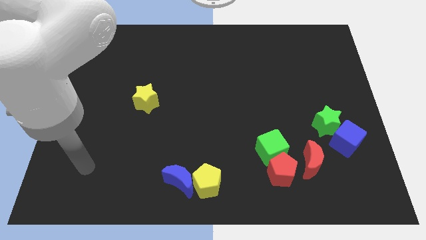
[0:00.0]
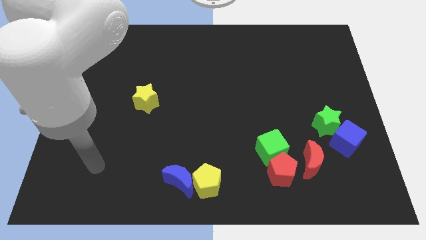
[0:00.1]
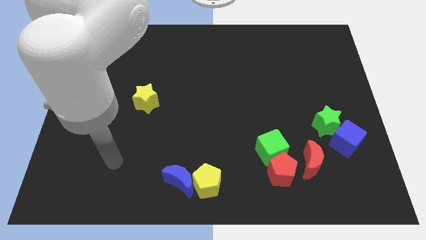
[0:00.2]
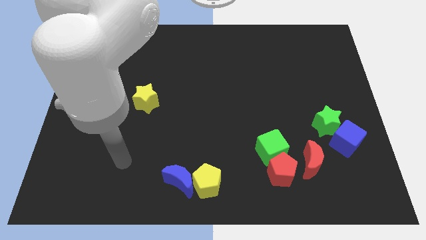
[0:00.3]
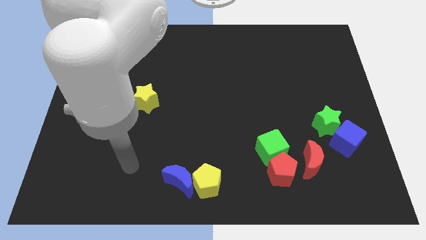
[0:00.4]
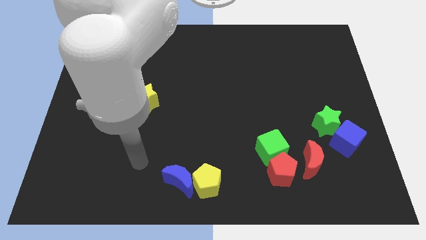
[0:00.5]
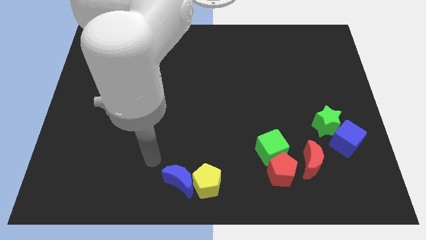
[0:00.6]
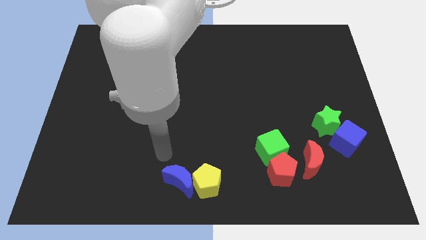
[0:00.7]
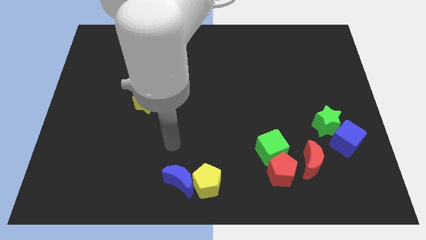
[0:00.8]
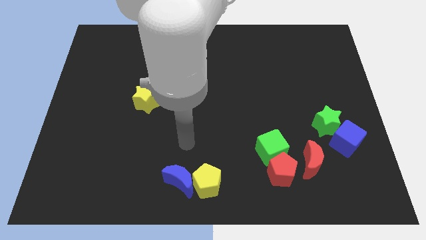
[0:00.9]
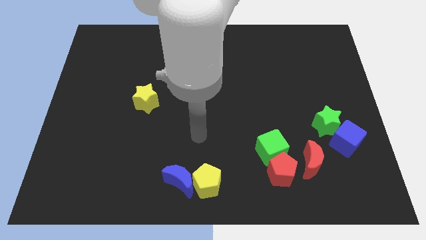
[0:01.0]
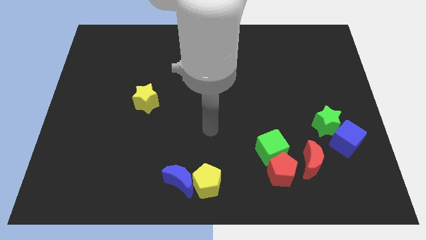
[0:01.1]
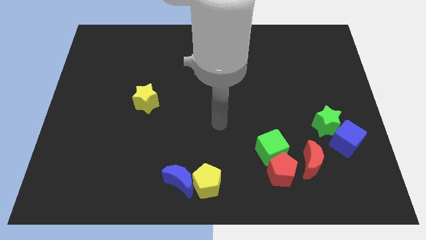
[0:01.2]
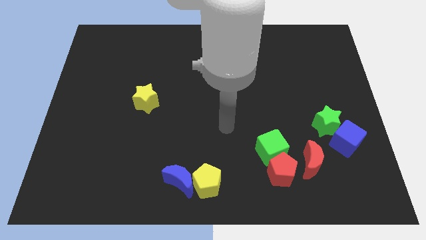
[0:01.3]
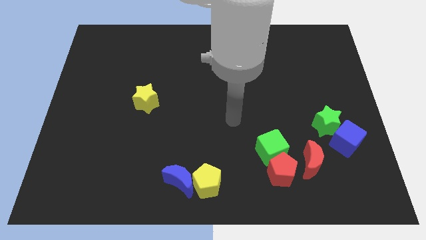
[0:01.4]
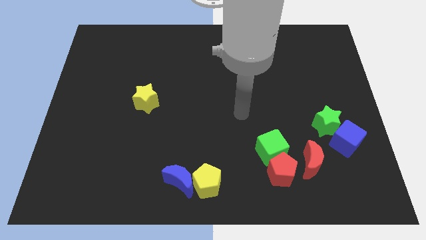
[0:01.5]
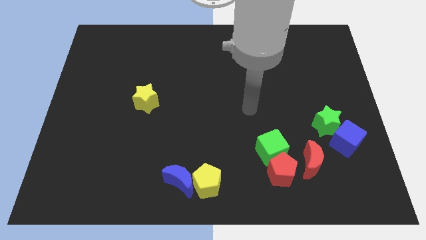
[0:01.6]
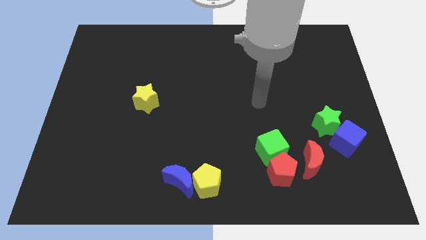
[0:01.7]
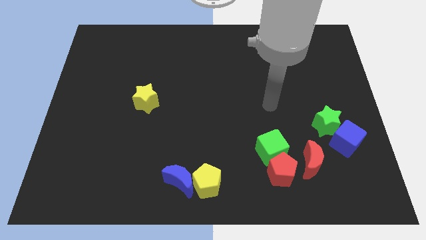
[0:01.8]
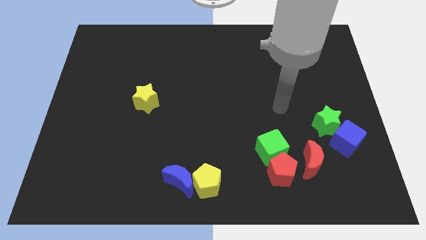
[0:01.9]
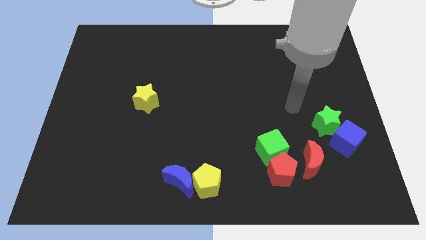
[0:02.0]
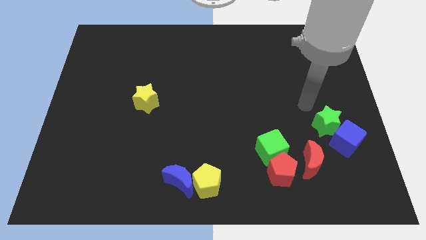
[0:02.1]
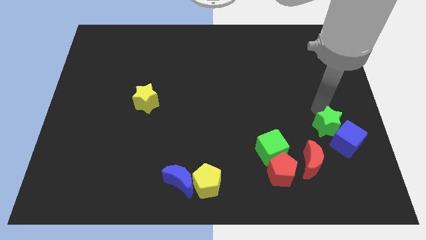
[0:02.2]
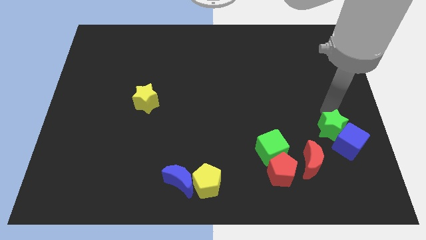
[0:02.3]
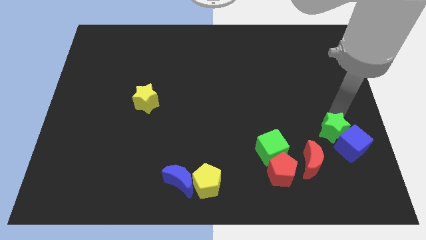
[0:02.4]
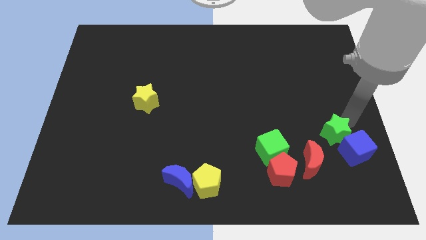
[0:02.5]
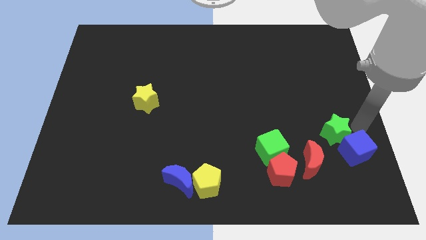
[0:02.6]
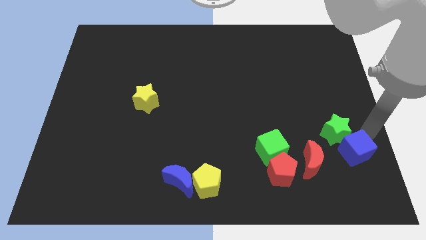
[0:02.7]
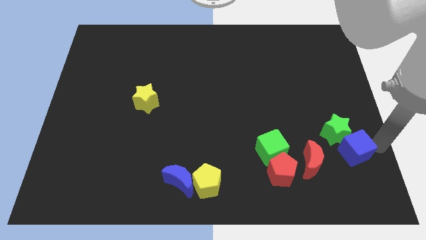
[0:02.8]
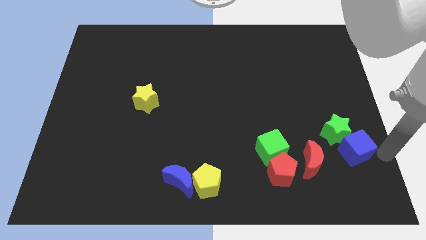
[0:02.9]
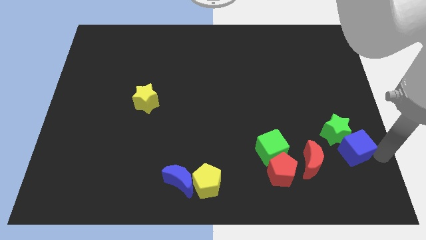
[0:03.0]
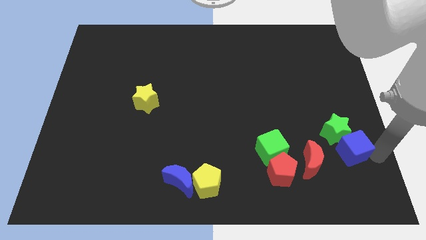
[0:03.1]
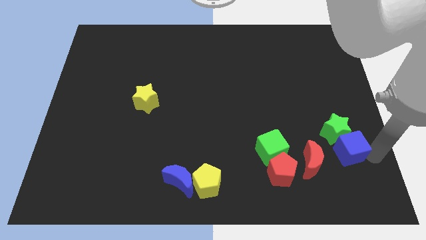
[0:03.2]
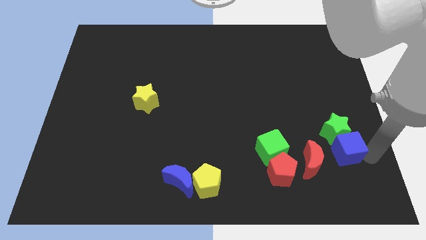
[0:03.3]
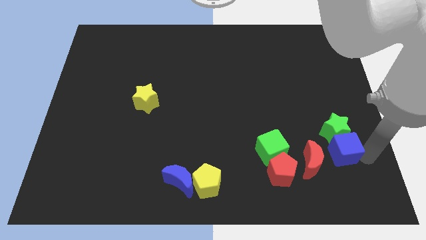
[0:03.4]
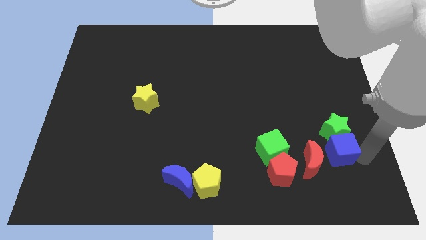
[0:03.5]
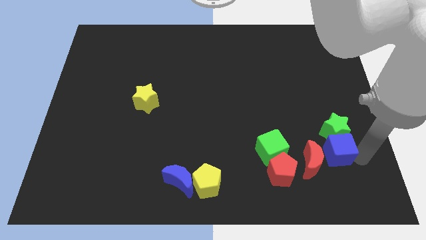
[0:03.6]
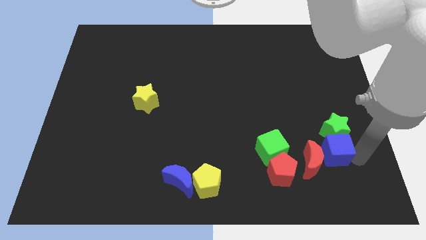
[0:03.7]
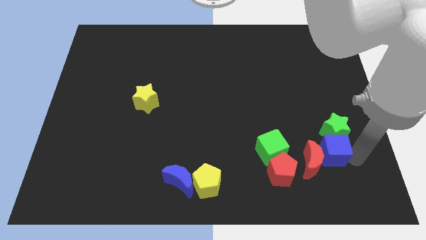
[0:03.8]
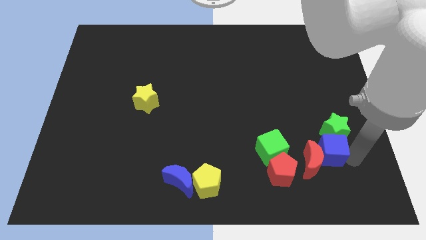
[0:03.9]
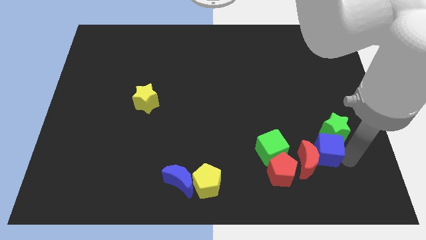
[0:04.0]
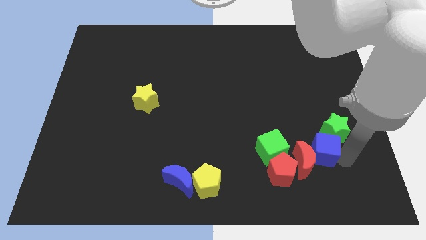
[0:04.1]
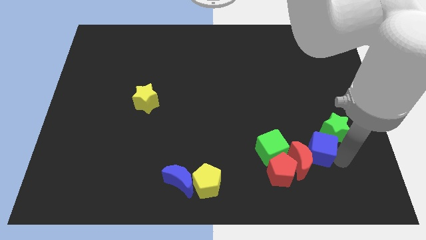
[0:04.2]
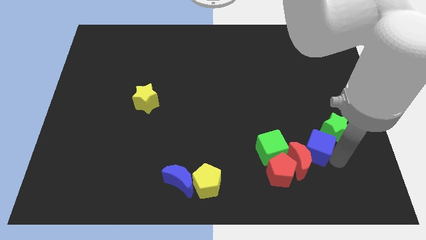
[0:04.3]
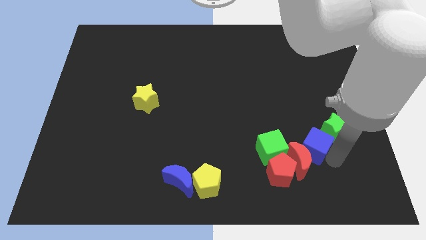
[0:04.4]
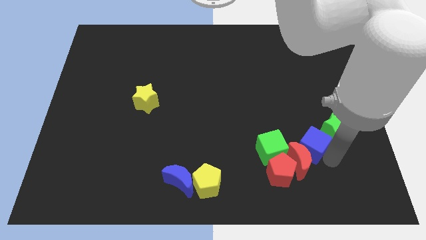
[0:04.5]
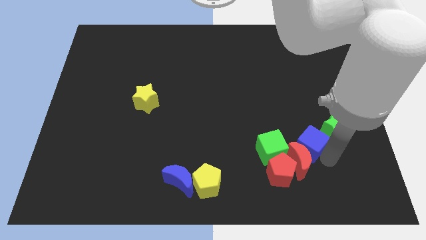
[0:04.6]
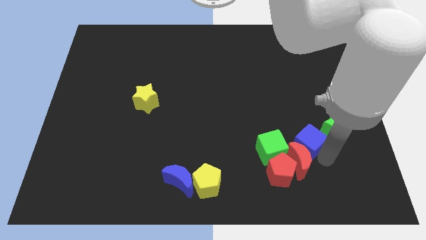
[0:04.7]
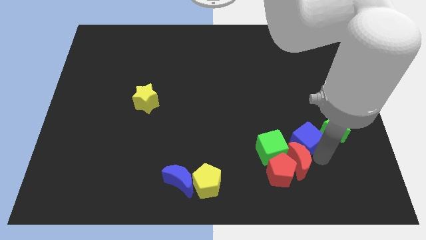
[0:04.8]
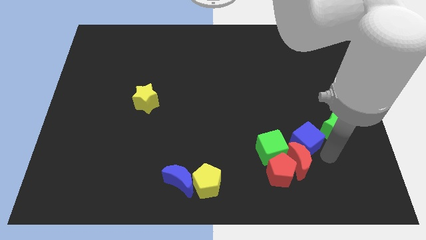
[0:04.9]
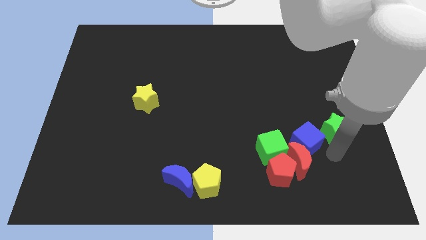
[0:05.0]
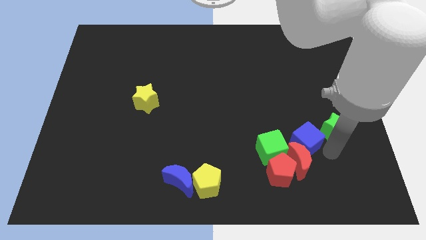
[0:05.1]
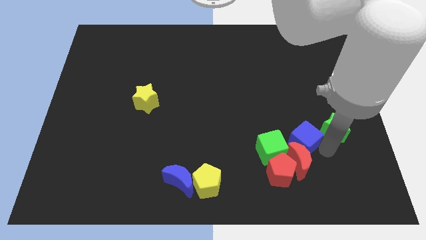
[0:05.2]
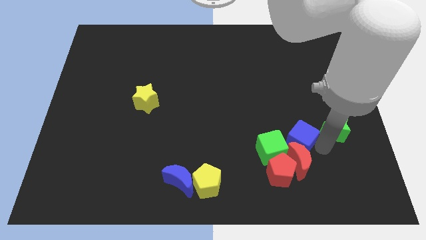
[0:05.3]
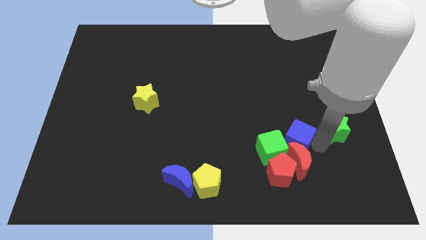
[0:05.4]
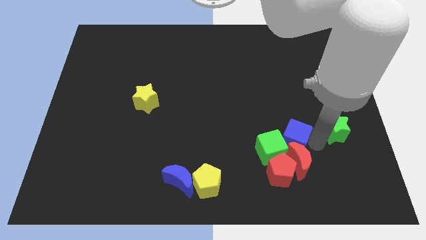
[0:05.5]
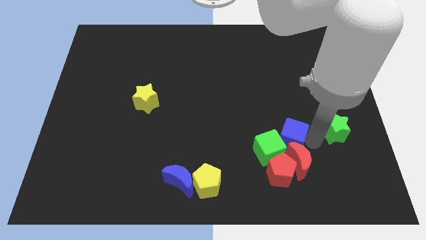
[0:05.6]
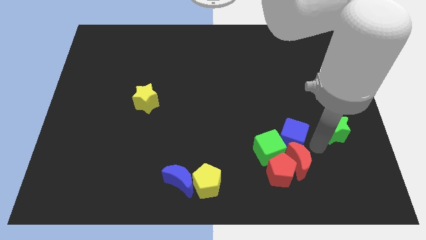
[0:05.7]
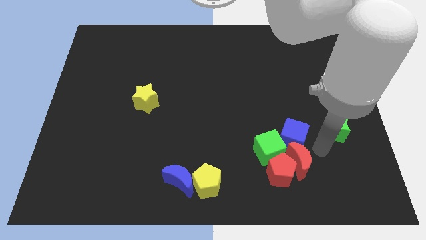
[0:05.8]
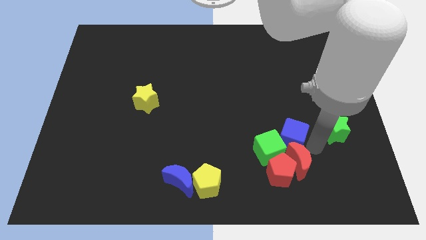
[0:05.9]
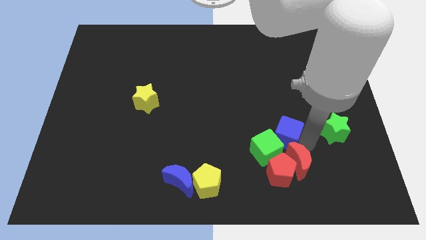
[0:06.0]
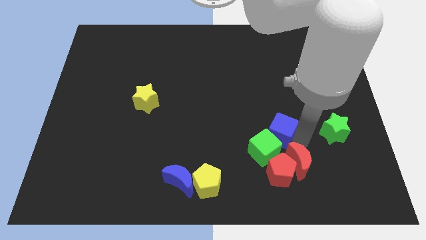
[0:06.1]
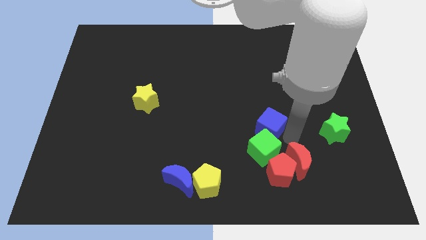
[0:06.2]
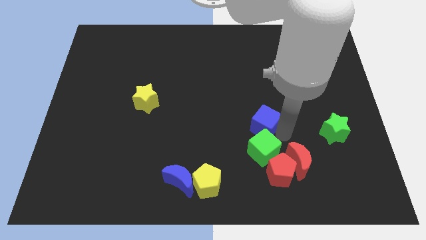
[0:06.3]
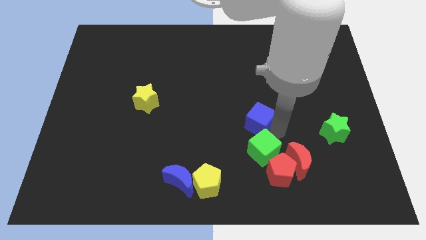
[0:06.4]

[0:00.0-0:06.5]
move the blue cube to the center of the board

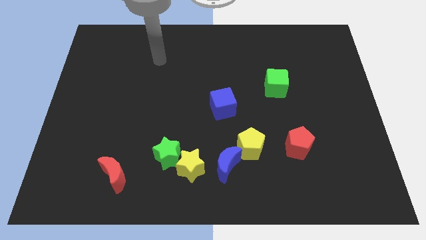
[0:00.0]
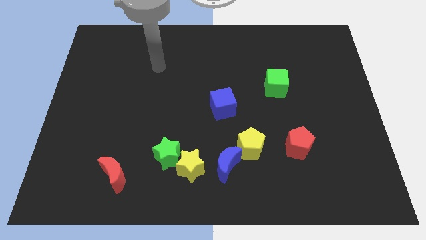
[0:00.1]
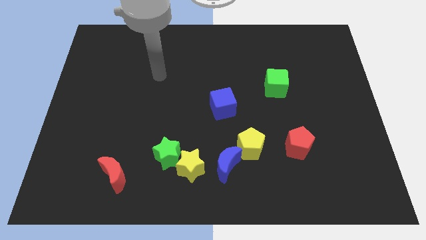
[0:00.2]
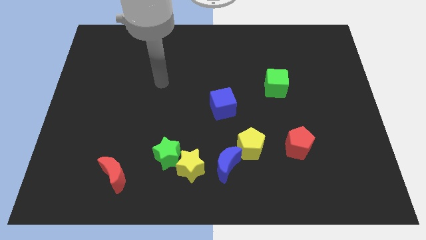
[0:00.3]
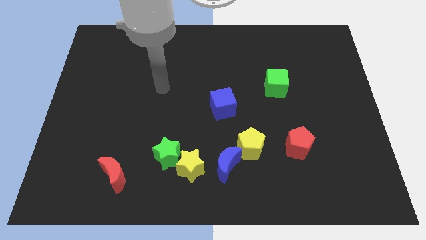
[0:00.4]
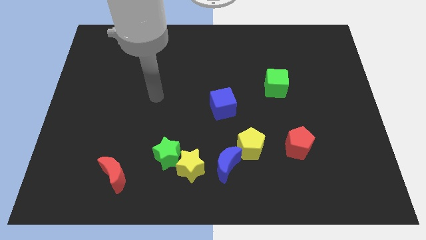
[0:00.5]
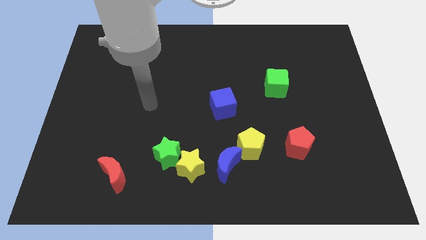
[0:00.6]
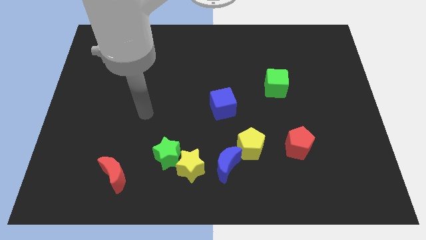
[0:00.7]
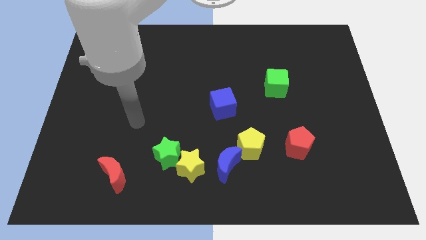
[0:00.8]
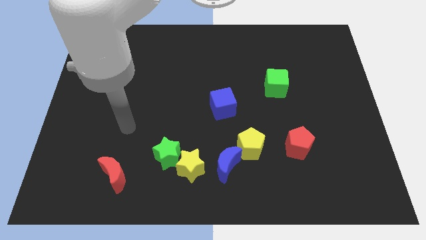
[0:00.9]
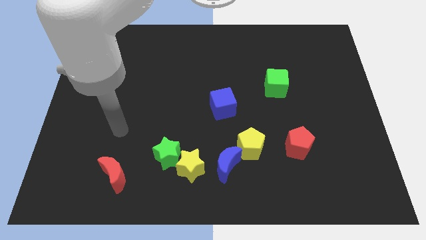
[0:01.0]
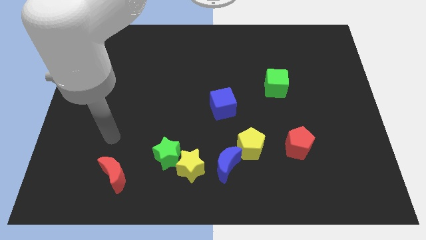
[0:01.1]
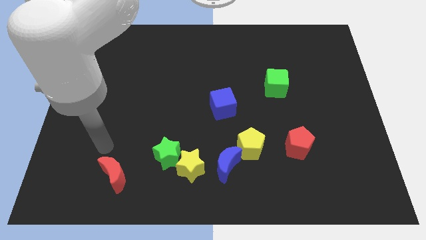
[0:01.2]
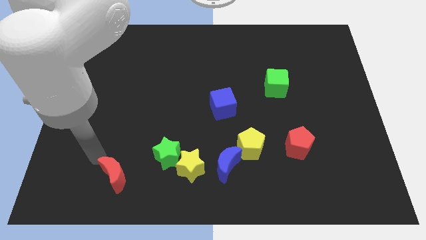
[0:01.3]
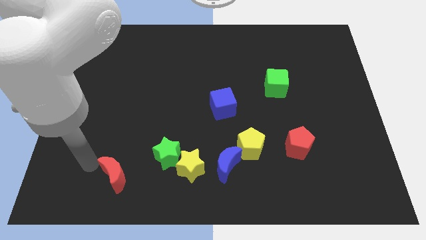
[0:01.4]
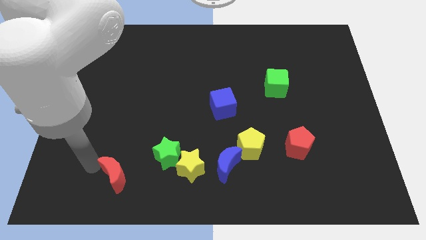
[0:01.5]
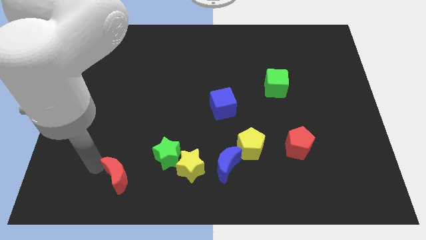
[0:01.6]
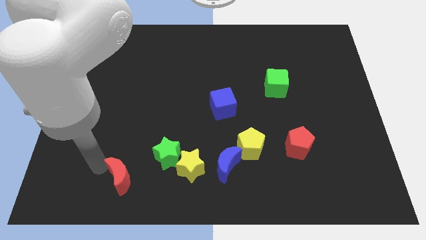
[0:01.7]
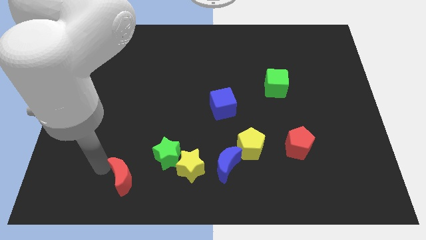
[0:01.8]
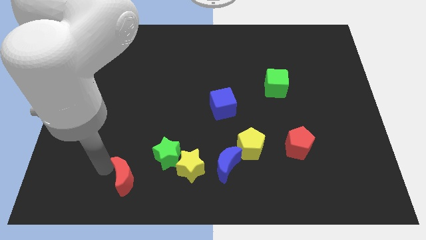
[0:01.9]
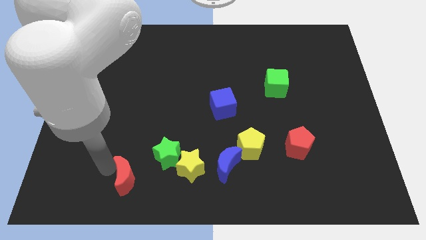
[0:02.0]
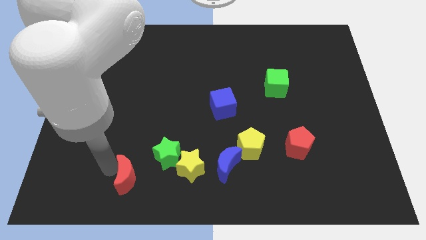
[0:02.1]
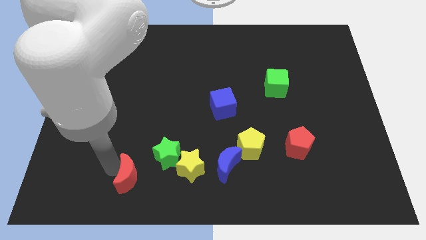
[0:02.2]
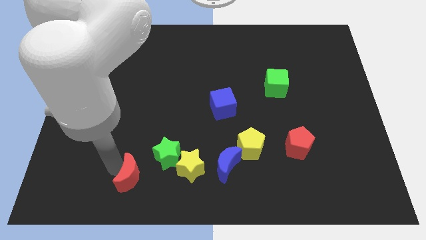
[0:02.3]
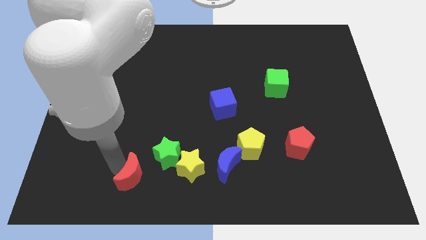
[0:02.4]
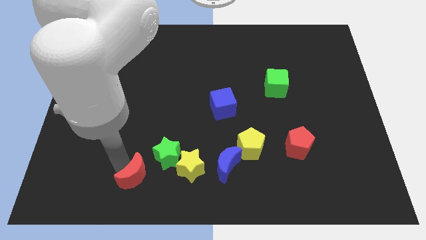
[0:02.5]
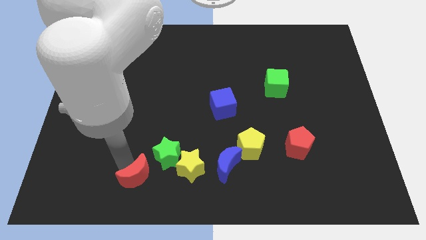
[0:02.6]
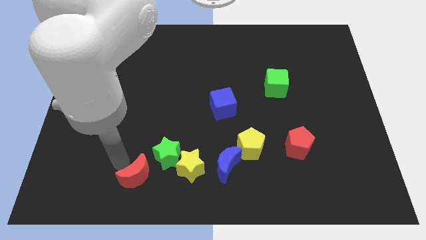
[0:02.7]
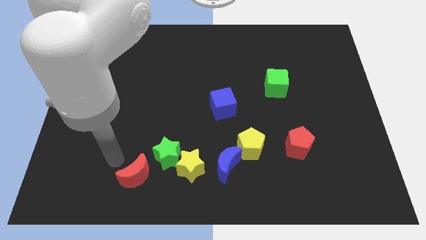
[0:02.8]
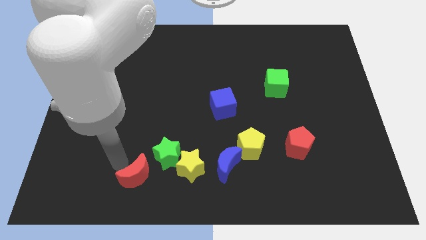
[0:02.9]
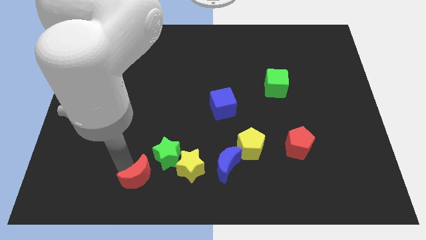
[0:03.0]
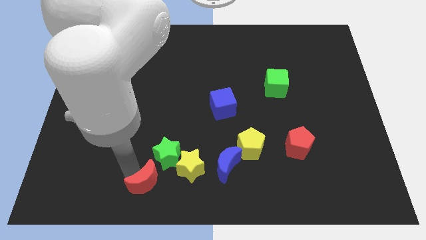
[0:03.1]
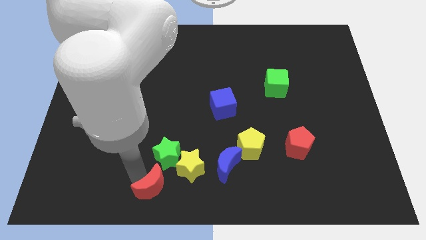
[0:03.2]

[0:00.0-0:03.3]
slide the red moon to the bottom side
